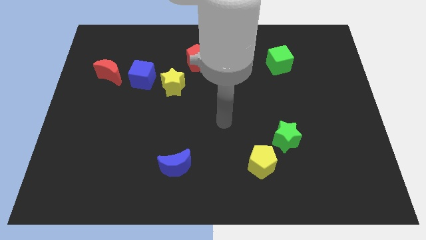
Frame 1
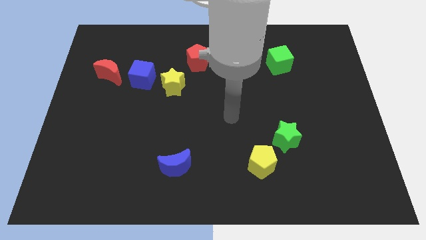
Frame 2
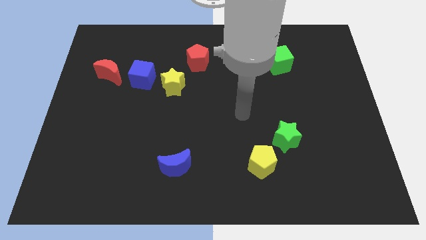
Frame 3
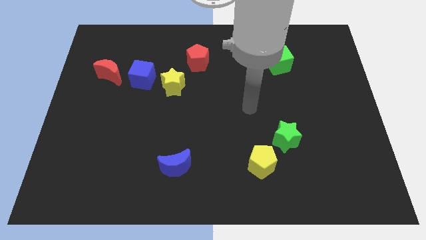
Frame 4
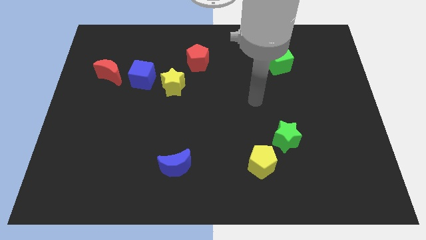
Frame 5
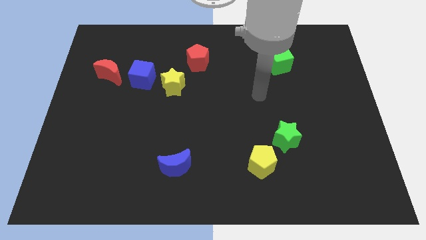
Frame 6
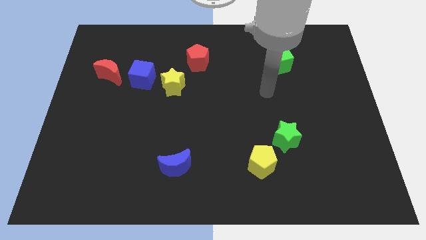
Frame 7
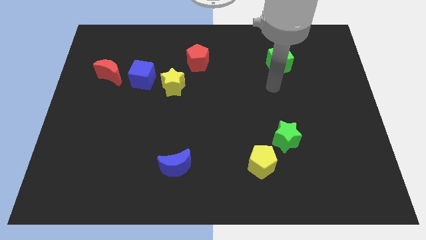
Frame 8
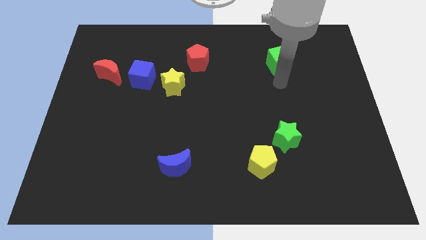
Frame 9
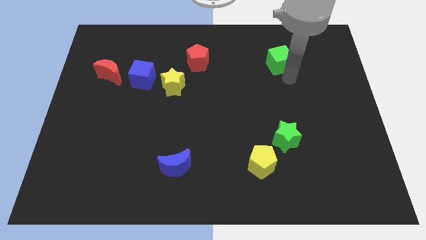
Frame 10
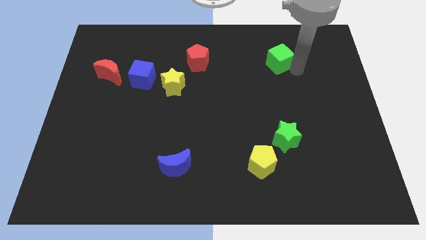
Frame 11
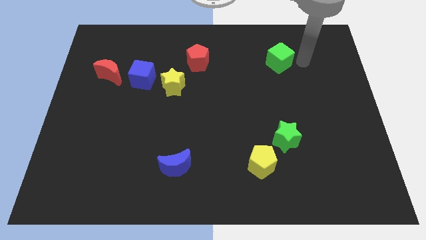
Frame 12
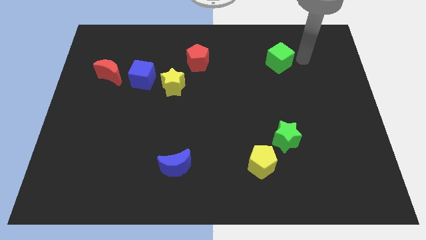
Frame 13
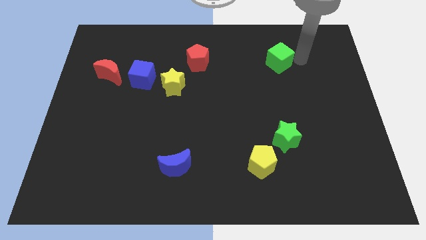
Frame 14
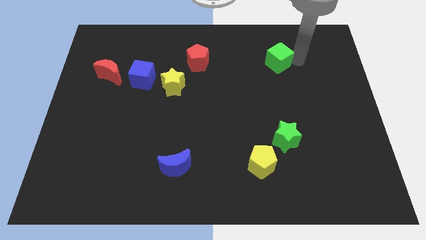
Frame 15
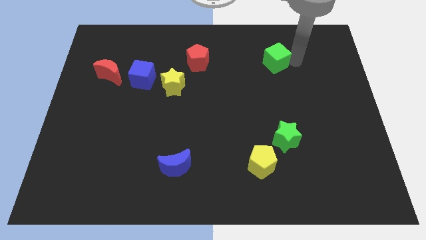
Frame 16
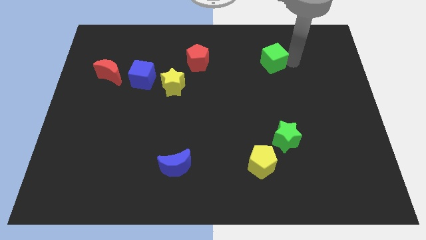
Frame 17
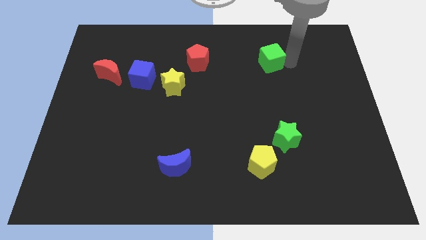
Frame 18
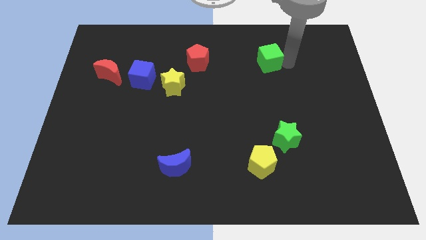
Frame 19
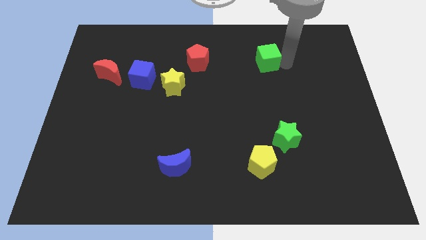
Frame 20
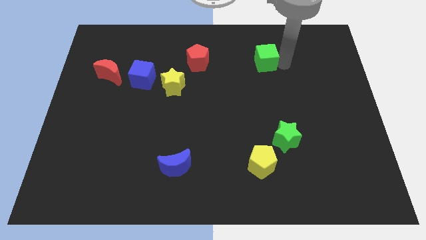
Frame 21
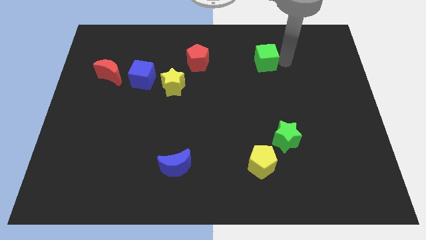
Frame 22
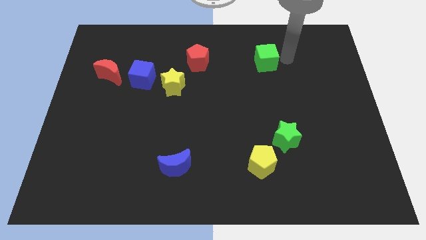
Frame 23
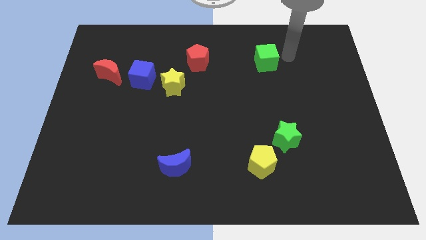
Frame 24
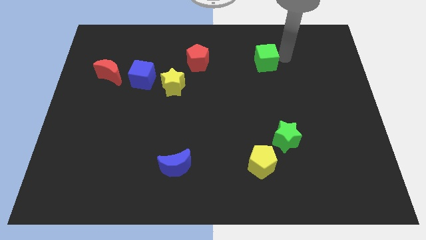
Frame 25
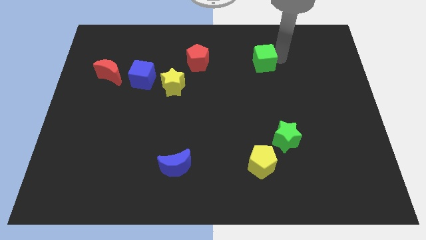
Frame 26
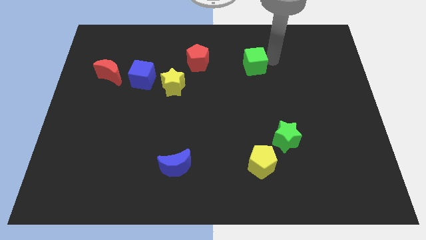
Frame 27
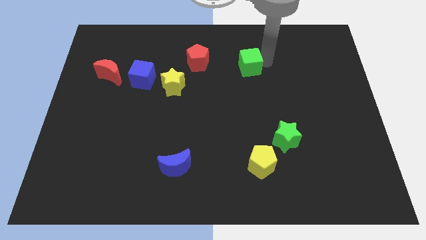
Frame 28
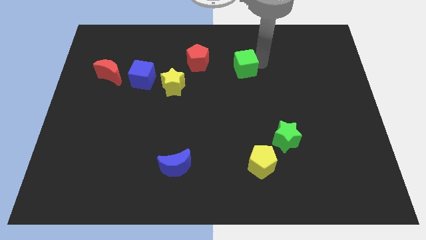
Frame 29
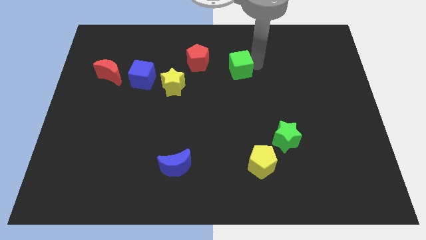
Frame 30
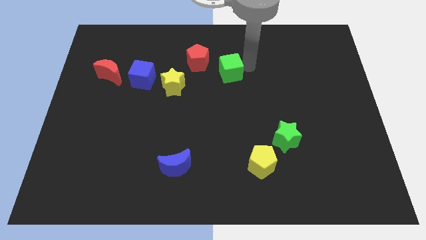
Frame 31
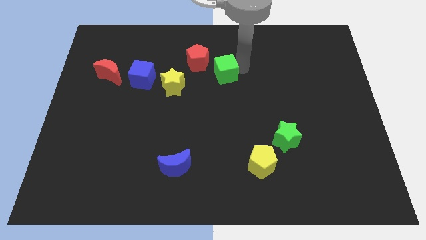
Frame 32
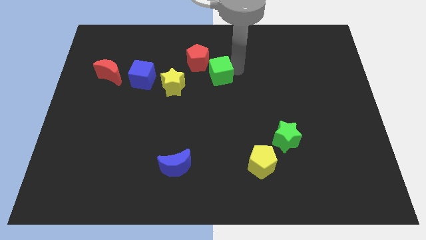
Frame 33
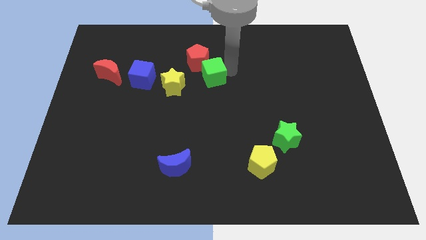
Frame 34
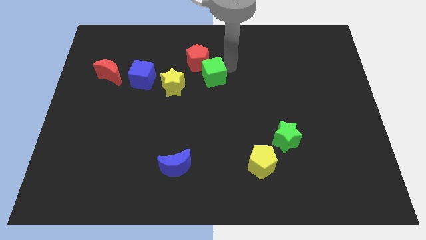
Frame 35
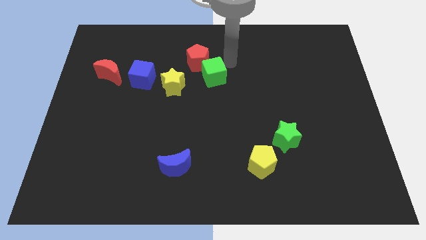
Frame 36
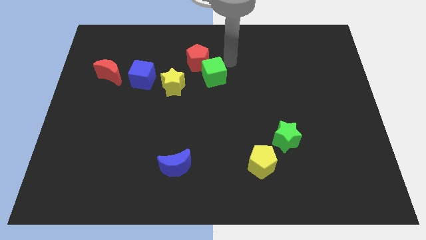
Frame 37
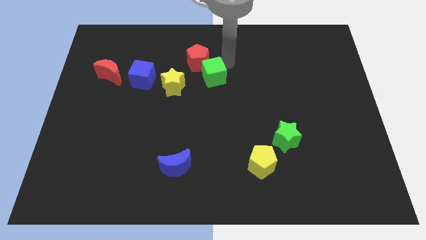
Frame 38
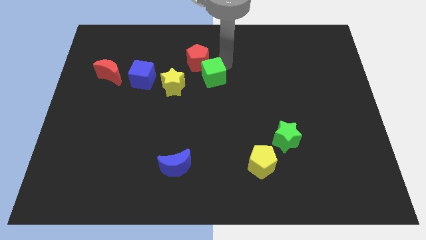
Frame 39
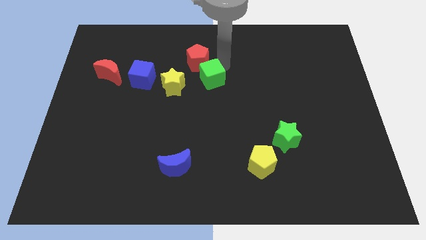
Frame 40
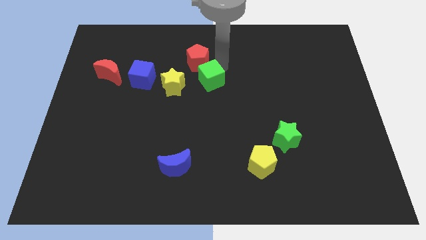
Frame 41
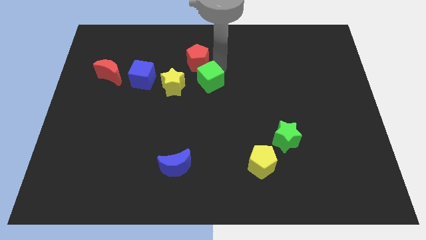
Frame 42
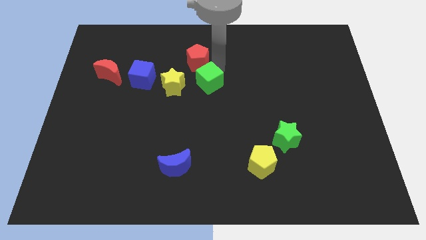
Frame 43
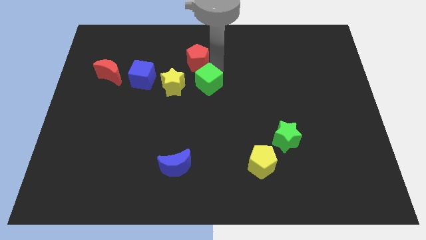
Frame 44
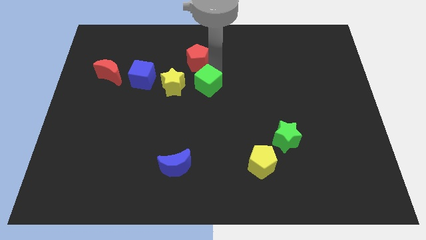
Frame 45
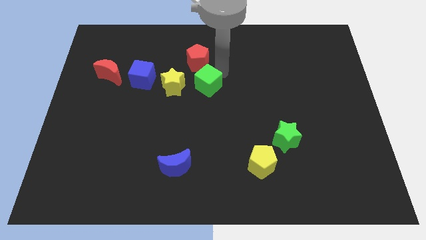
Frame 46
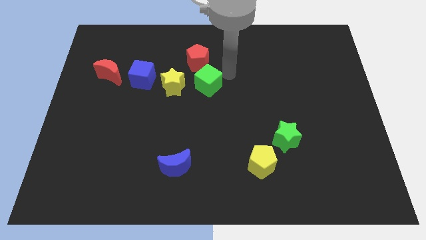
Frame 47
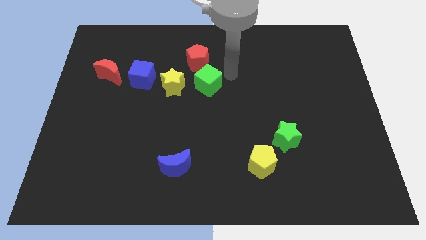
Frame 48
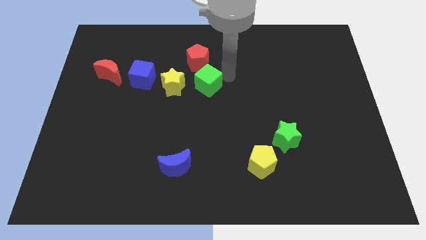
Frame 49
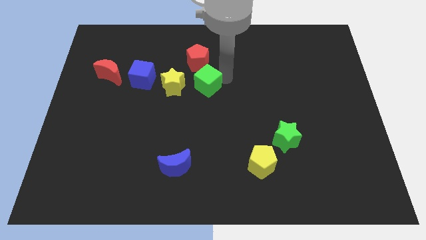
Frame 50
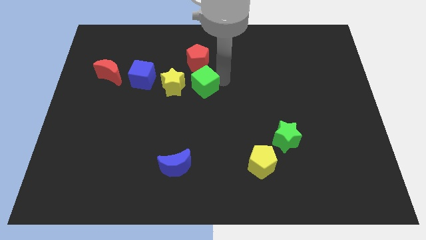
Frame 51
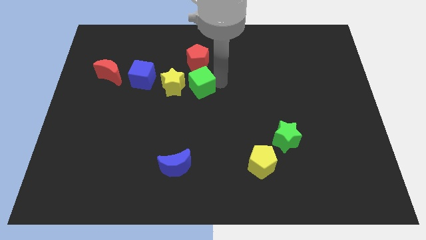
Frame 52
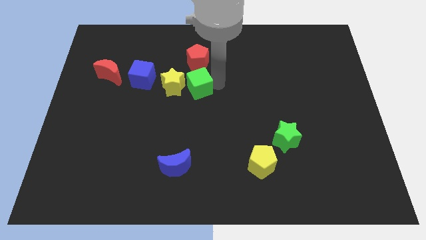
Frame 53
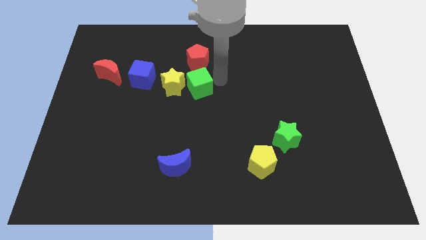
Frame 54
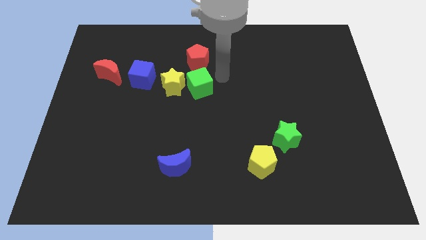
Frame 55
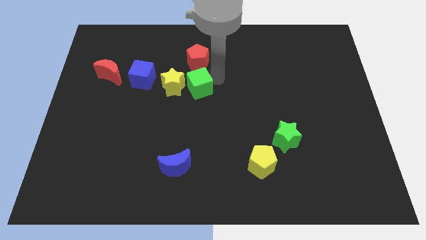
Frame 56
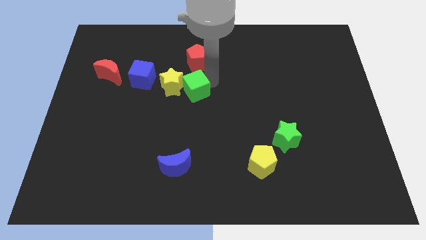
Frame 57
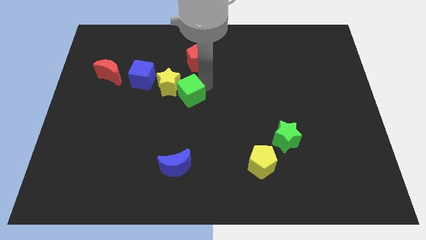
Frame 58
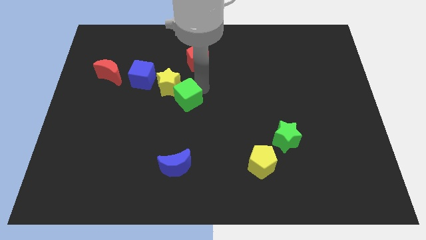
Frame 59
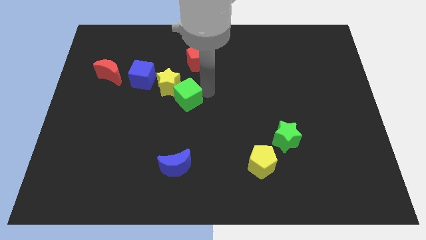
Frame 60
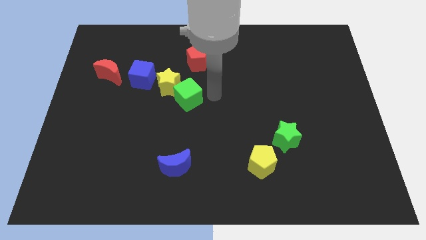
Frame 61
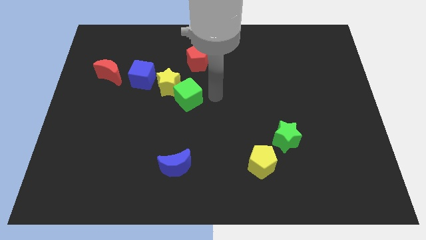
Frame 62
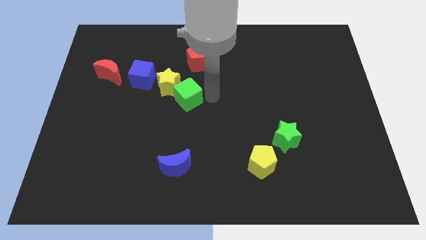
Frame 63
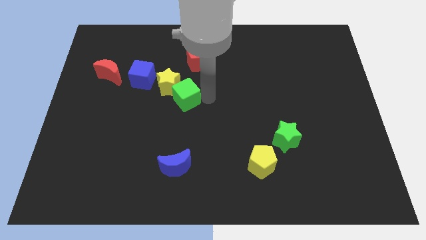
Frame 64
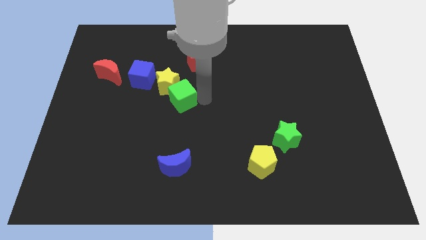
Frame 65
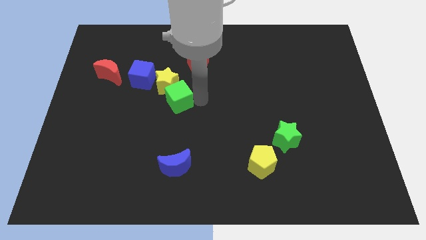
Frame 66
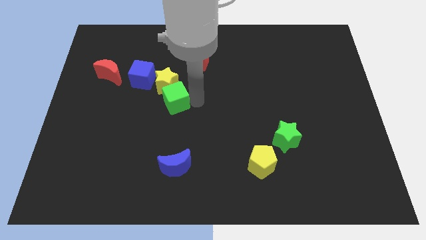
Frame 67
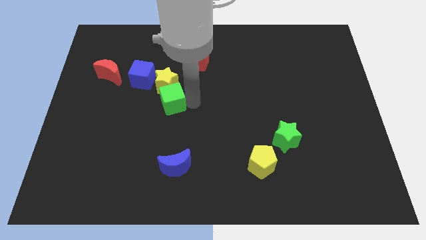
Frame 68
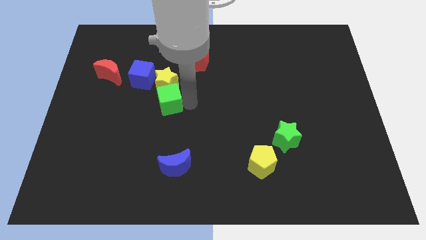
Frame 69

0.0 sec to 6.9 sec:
slide the green cube to the bottom left of the yellow star

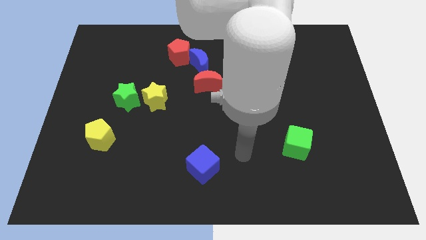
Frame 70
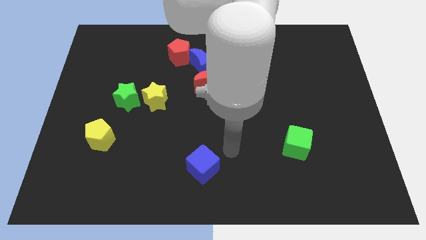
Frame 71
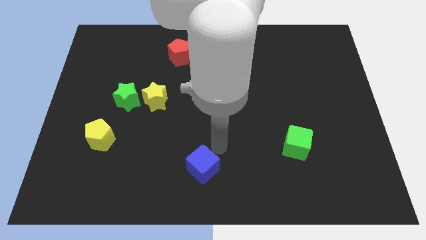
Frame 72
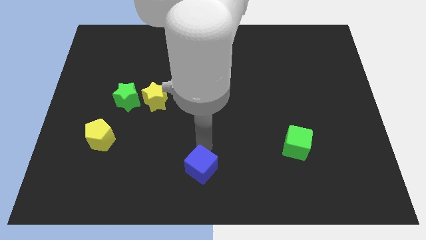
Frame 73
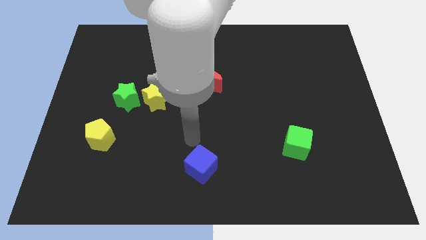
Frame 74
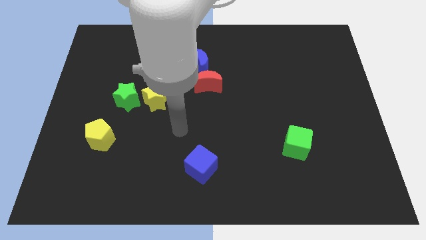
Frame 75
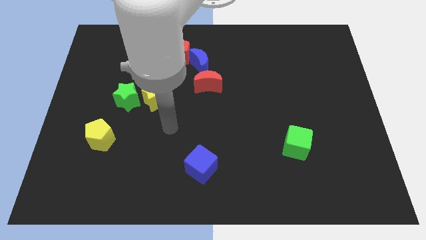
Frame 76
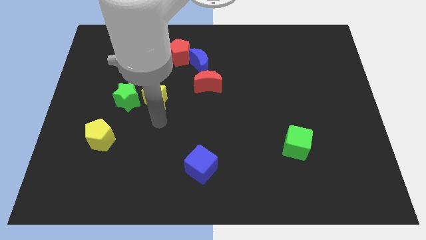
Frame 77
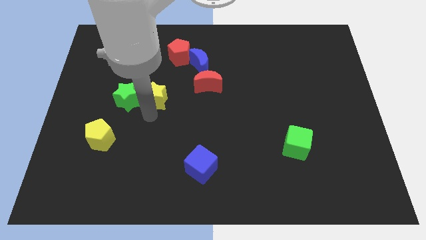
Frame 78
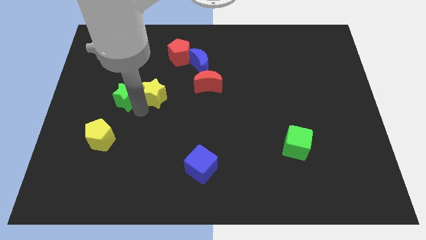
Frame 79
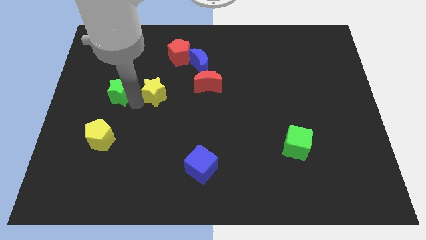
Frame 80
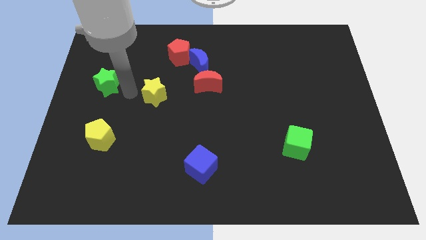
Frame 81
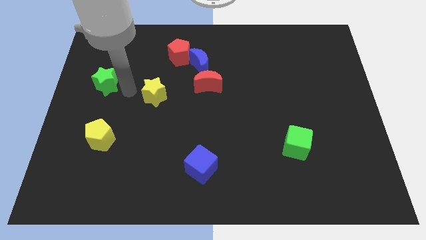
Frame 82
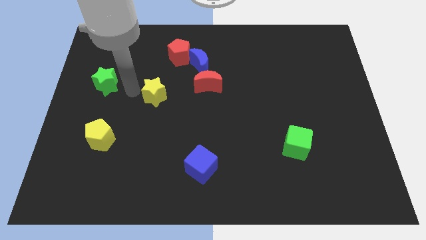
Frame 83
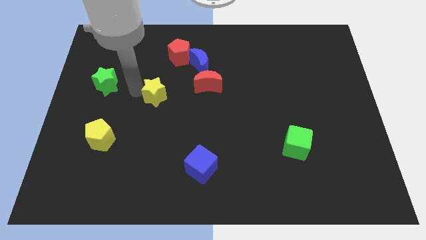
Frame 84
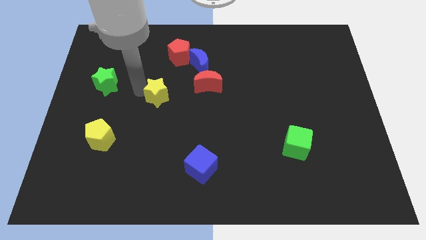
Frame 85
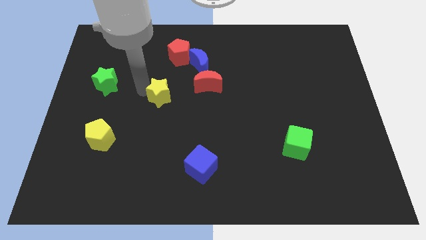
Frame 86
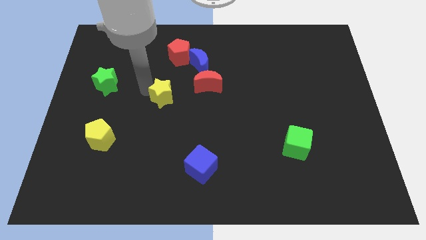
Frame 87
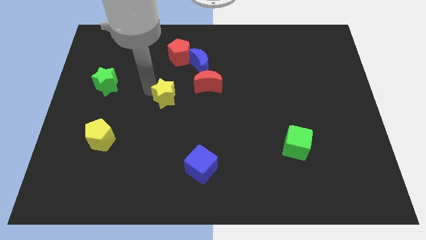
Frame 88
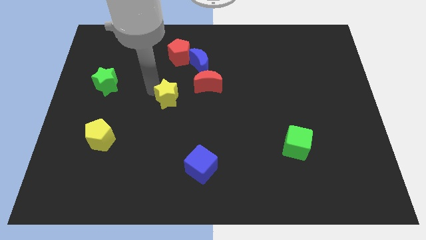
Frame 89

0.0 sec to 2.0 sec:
put the yellow star diagonally down and to the left of the red moon
